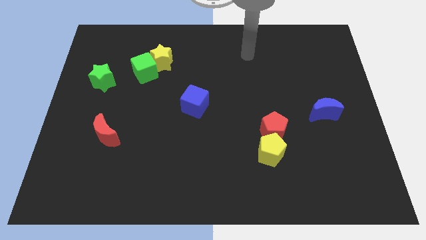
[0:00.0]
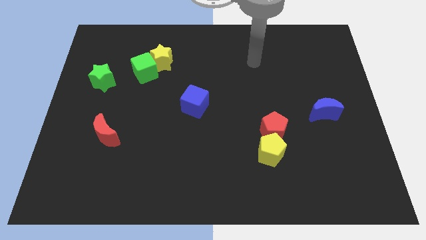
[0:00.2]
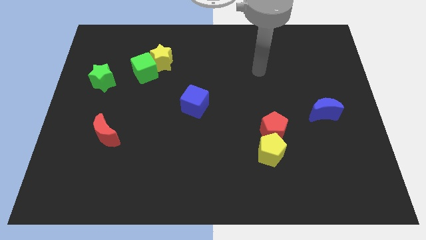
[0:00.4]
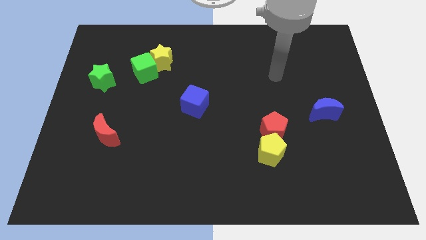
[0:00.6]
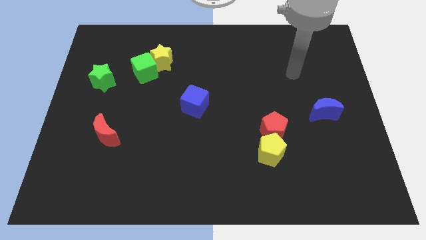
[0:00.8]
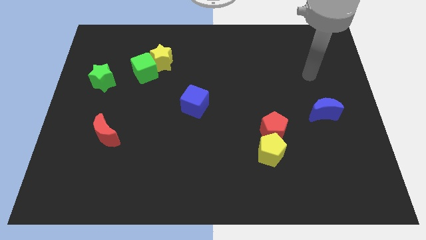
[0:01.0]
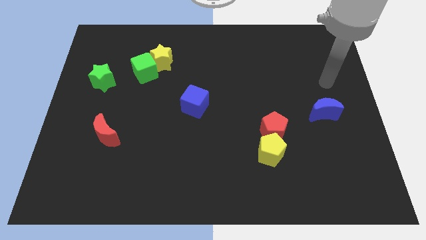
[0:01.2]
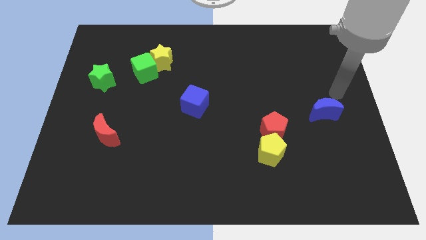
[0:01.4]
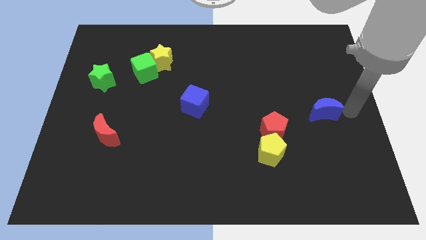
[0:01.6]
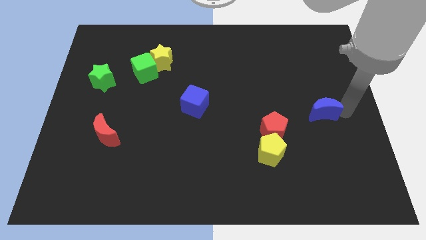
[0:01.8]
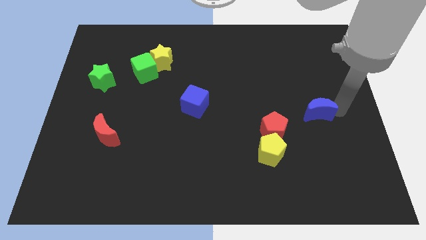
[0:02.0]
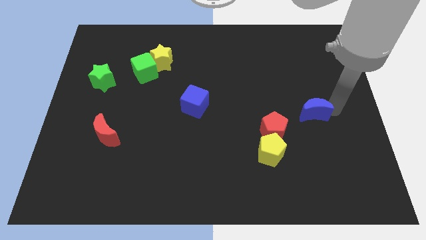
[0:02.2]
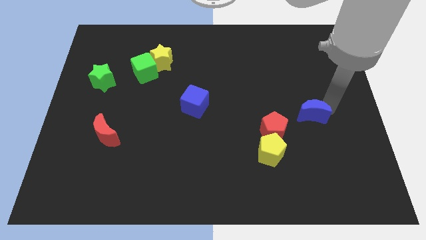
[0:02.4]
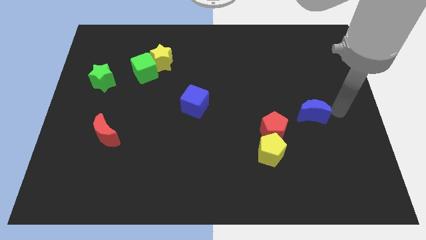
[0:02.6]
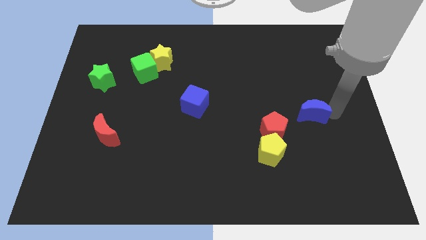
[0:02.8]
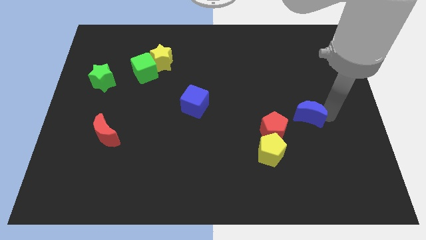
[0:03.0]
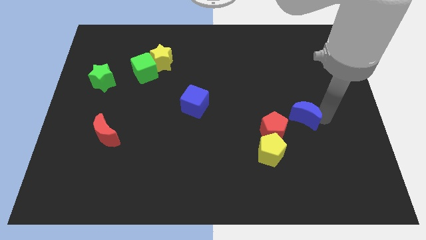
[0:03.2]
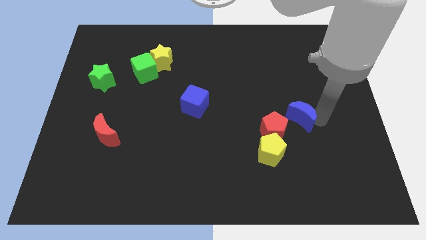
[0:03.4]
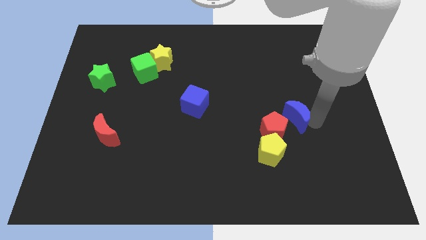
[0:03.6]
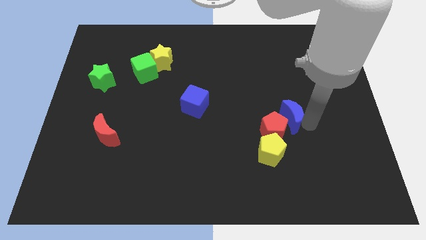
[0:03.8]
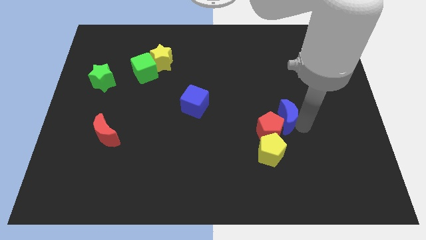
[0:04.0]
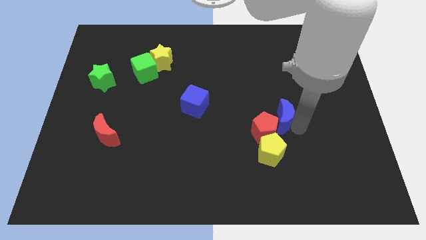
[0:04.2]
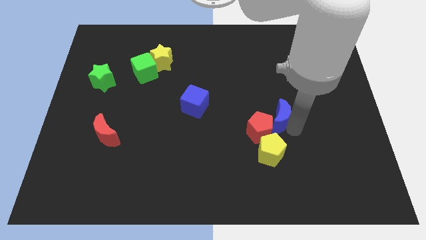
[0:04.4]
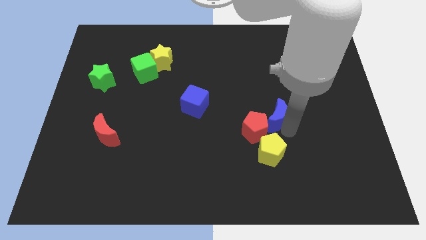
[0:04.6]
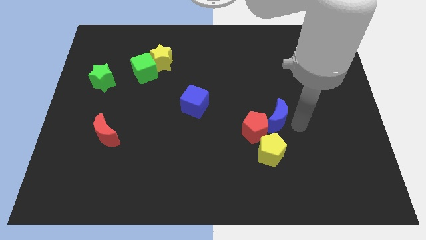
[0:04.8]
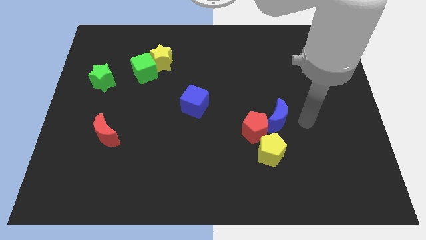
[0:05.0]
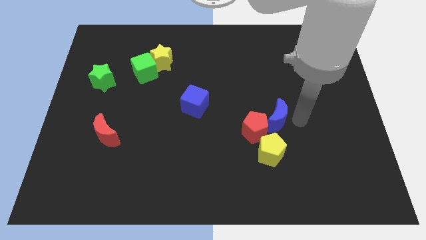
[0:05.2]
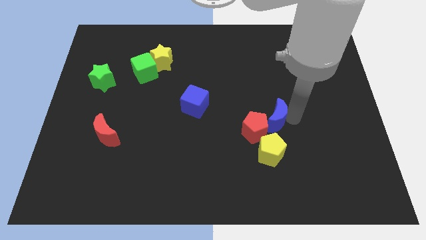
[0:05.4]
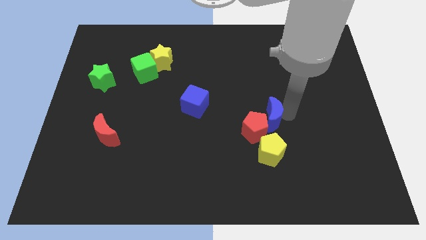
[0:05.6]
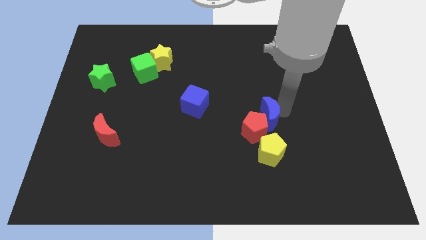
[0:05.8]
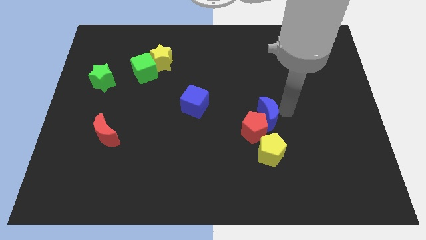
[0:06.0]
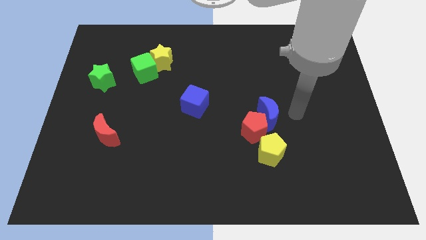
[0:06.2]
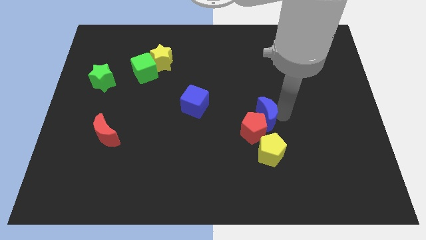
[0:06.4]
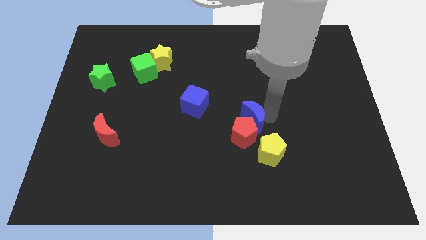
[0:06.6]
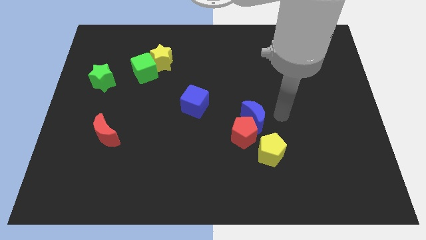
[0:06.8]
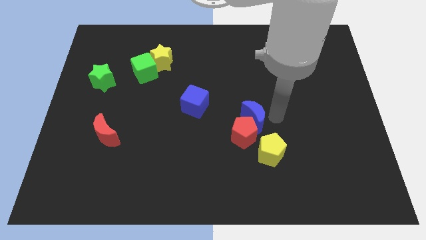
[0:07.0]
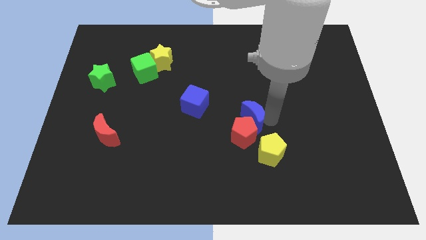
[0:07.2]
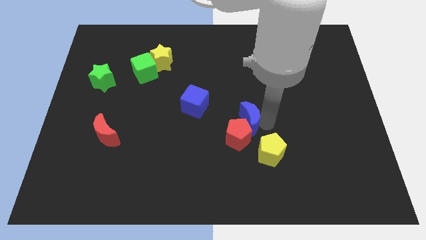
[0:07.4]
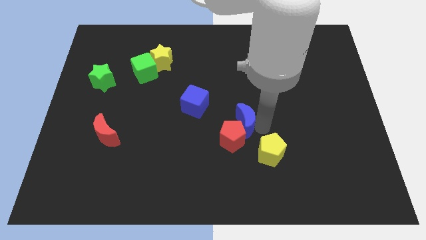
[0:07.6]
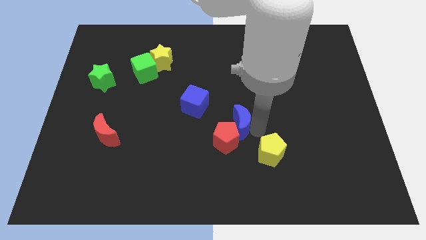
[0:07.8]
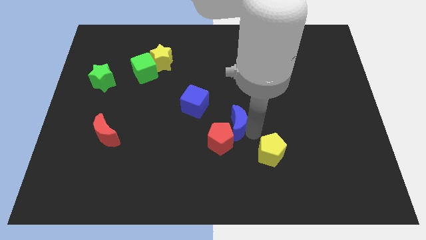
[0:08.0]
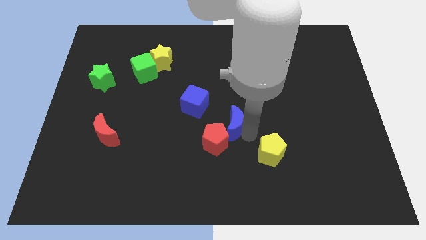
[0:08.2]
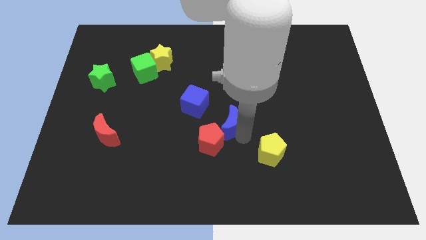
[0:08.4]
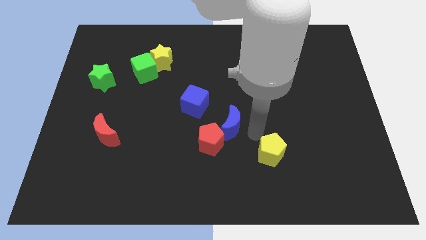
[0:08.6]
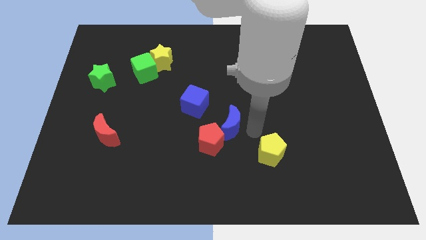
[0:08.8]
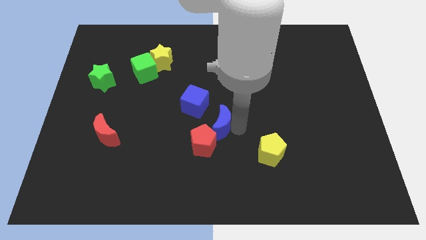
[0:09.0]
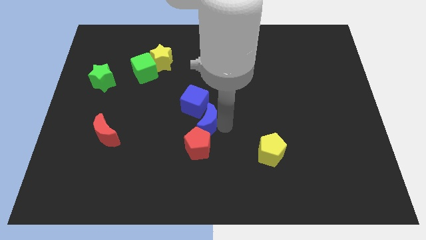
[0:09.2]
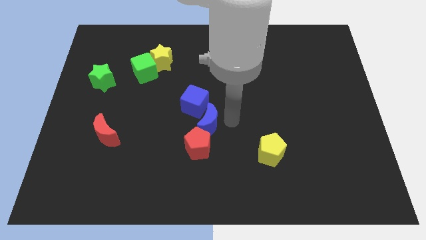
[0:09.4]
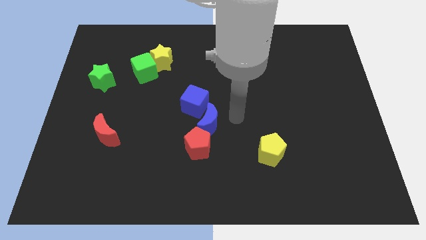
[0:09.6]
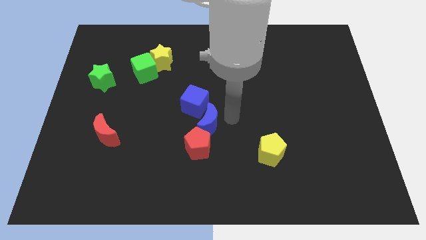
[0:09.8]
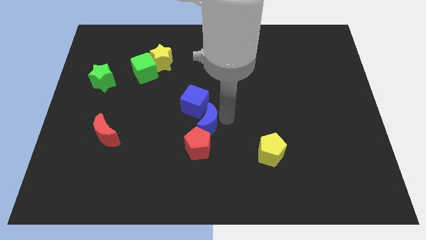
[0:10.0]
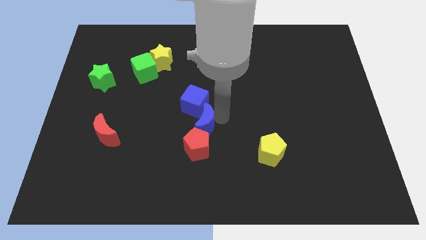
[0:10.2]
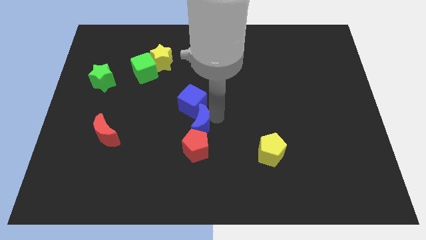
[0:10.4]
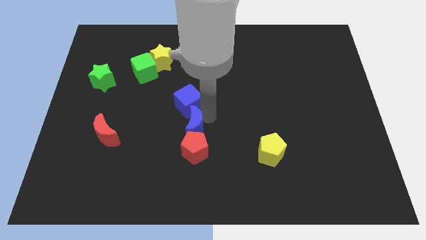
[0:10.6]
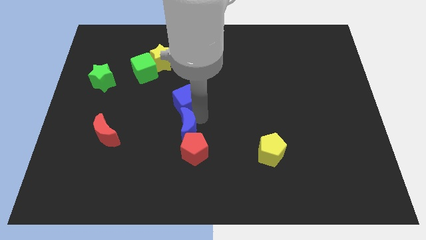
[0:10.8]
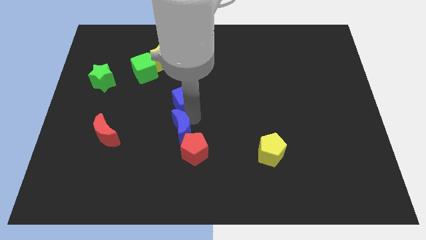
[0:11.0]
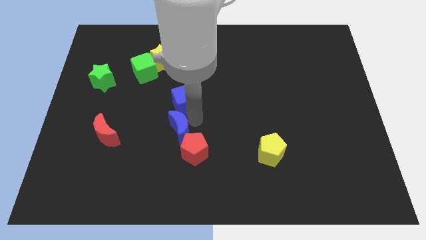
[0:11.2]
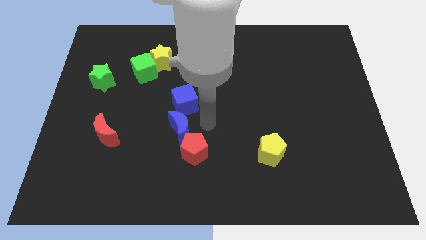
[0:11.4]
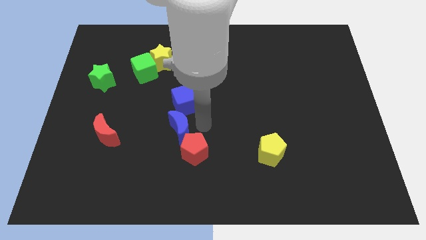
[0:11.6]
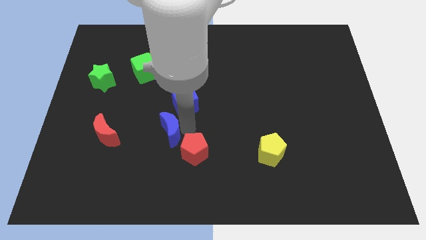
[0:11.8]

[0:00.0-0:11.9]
push the blue moon to the right of the red moon

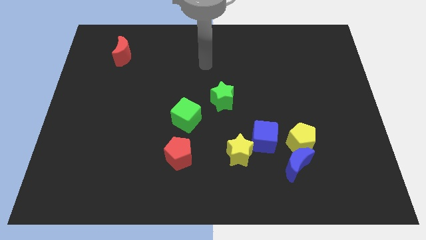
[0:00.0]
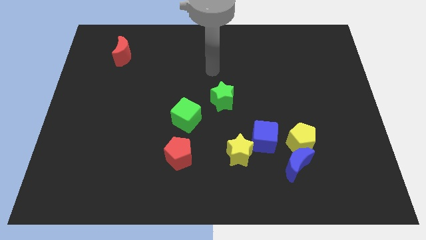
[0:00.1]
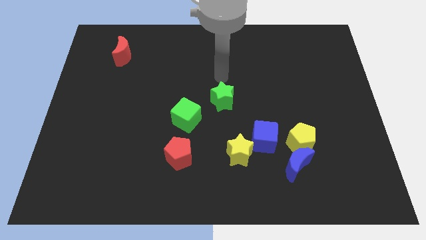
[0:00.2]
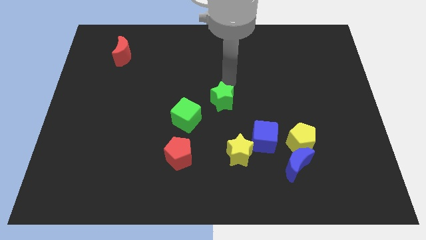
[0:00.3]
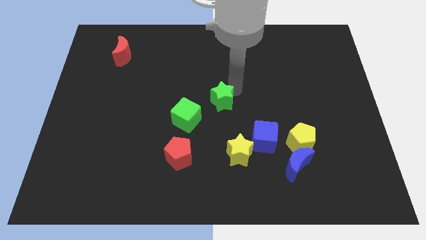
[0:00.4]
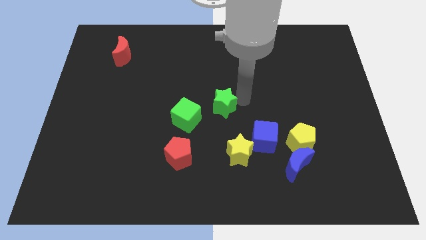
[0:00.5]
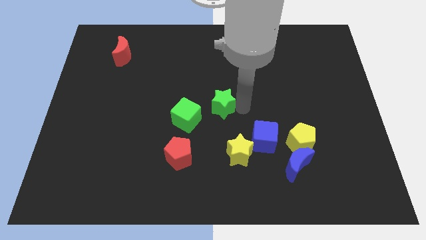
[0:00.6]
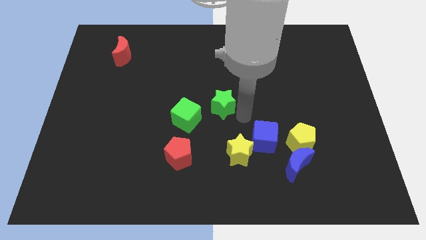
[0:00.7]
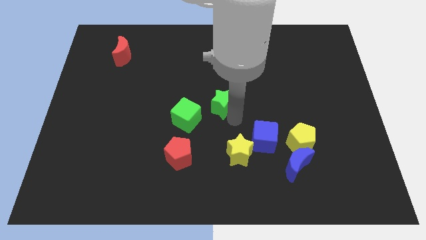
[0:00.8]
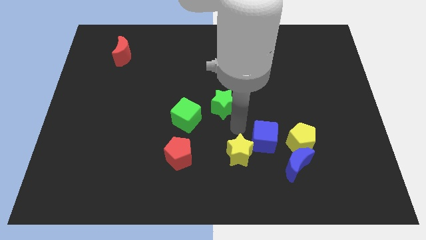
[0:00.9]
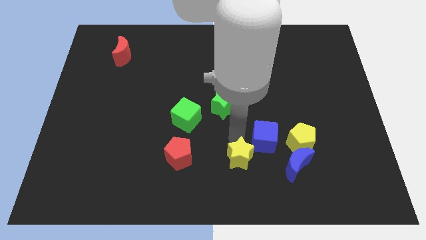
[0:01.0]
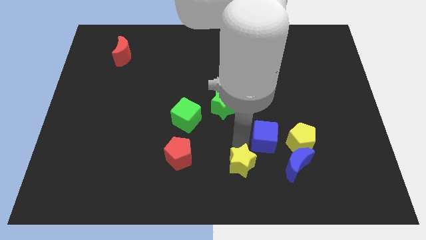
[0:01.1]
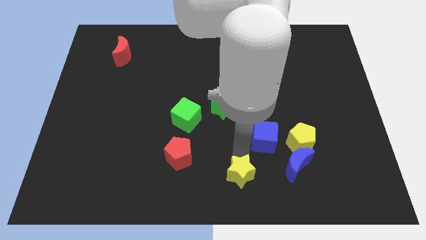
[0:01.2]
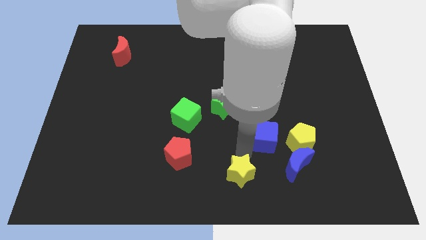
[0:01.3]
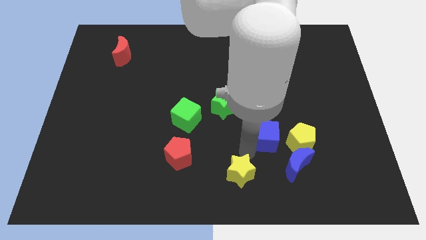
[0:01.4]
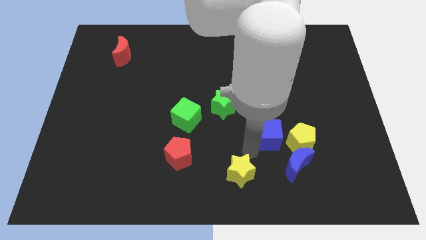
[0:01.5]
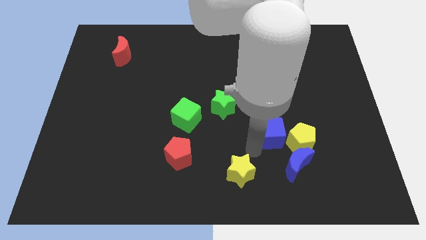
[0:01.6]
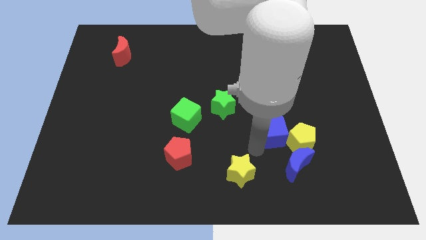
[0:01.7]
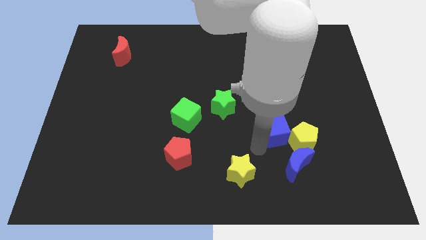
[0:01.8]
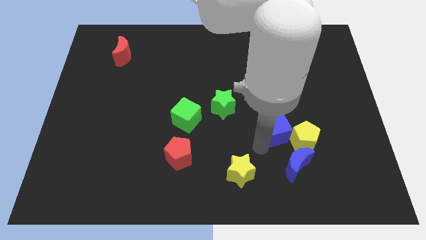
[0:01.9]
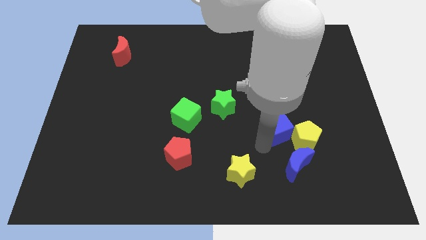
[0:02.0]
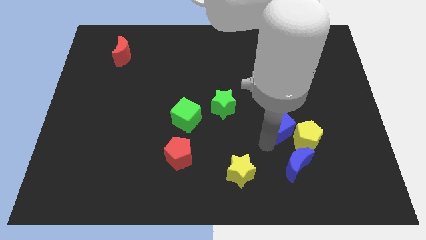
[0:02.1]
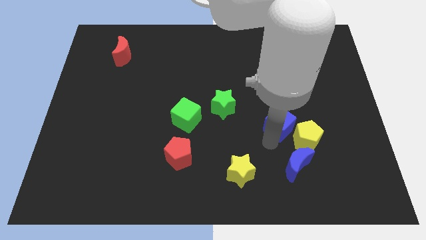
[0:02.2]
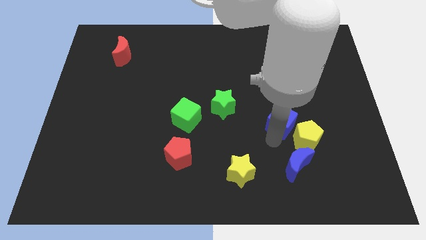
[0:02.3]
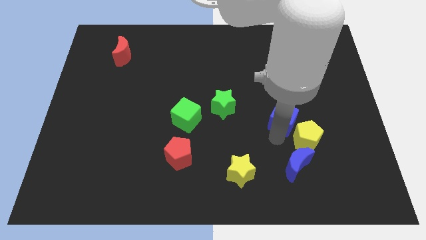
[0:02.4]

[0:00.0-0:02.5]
move the blue cube to the top side of the yellow pentagon
